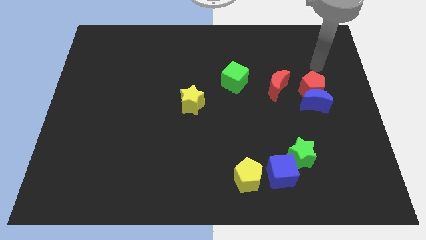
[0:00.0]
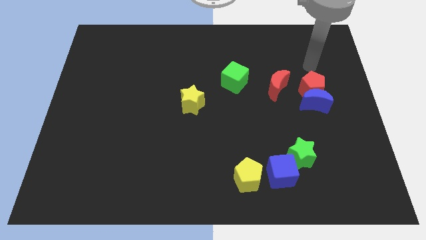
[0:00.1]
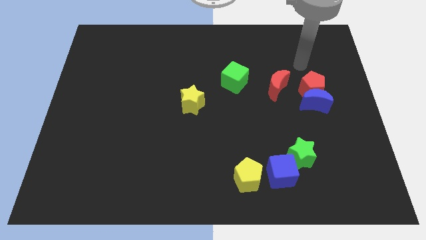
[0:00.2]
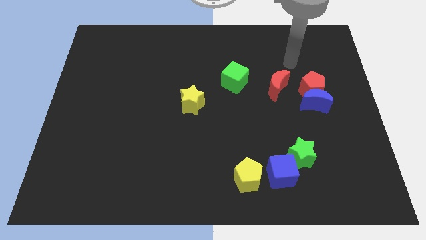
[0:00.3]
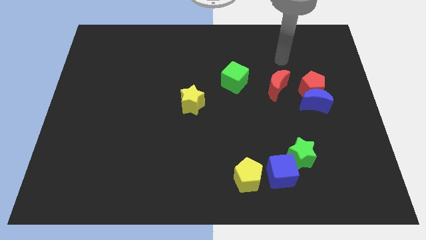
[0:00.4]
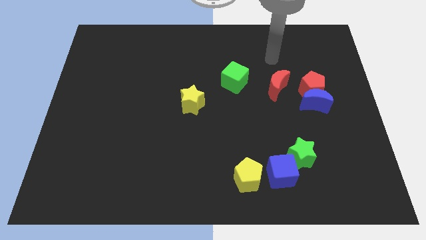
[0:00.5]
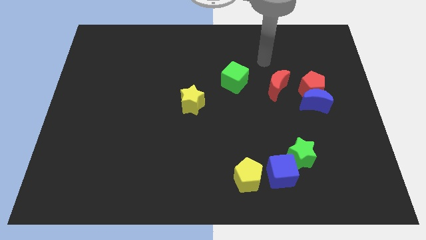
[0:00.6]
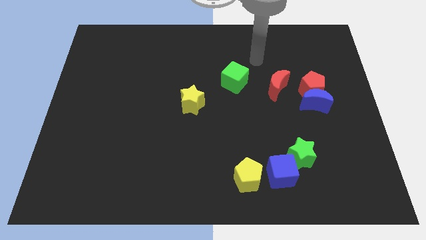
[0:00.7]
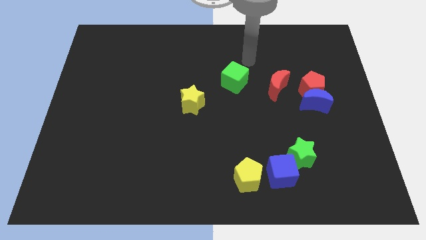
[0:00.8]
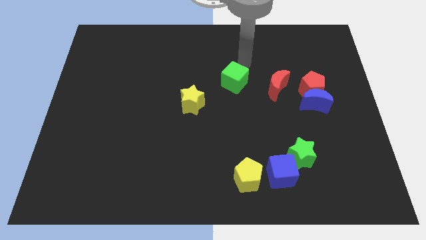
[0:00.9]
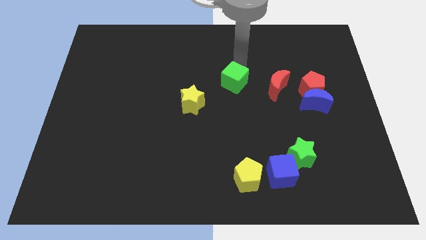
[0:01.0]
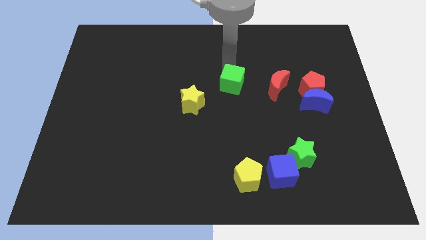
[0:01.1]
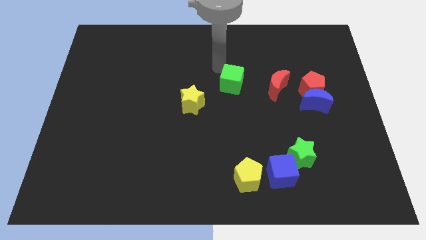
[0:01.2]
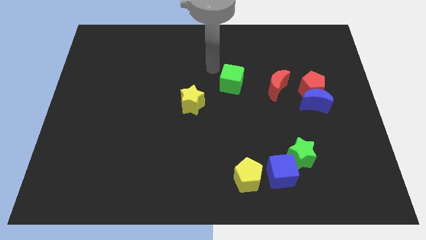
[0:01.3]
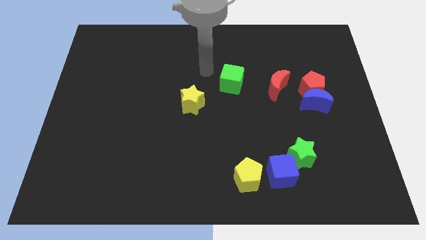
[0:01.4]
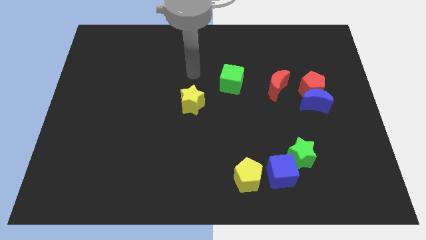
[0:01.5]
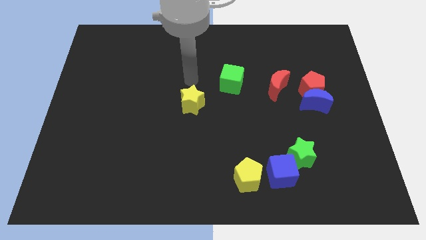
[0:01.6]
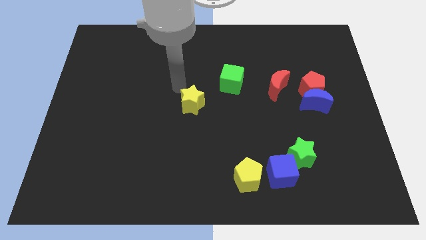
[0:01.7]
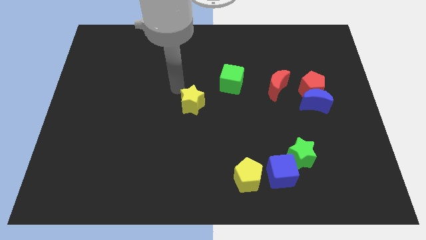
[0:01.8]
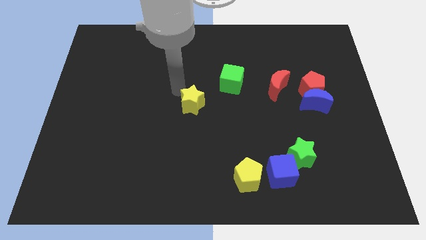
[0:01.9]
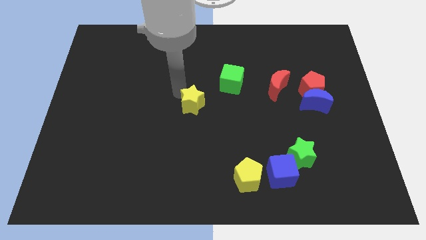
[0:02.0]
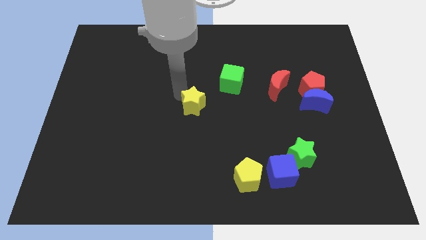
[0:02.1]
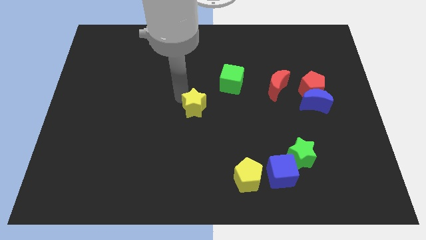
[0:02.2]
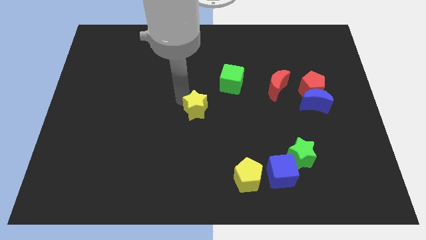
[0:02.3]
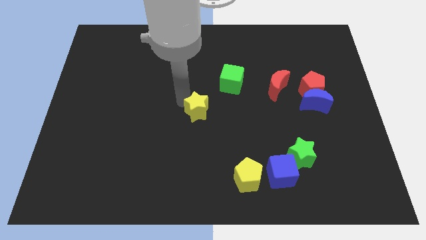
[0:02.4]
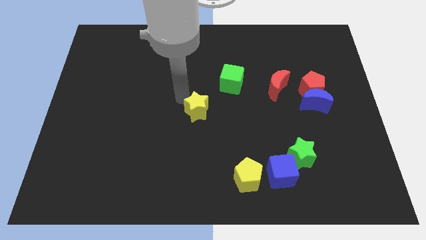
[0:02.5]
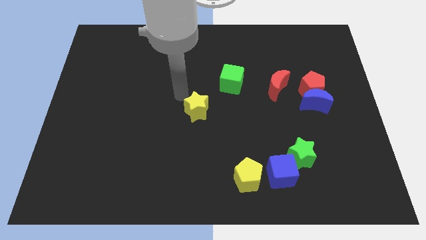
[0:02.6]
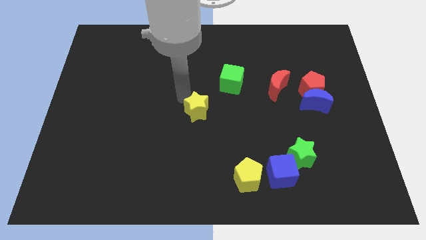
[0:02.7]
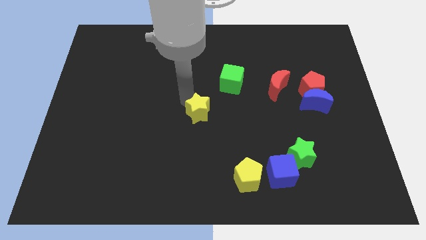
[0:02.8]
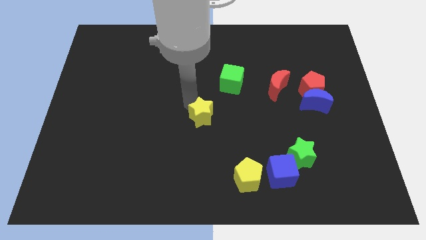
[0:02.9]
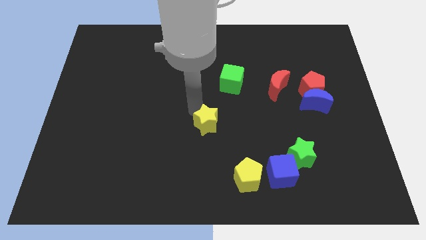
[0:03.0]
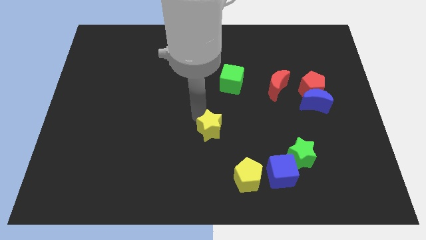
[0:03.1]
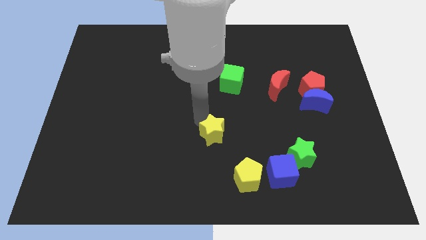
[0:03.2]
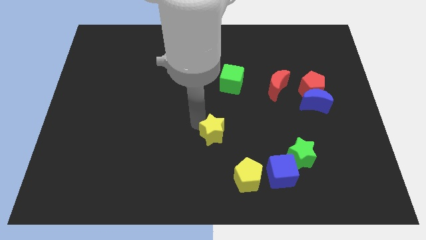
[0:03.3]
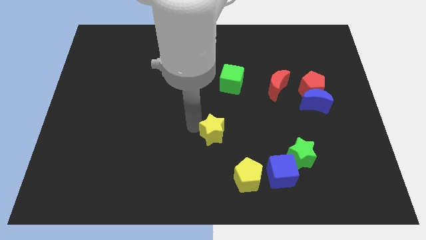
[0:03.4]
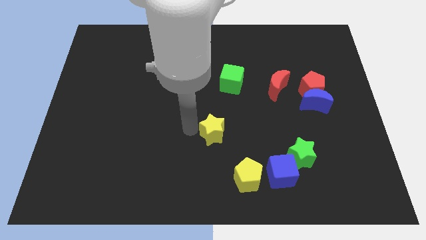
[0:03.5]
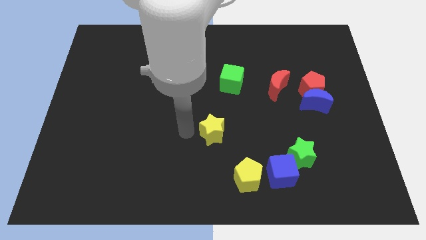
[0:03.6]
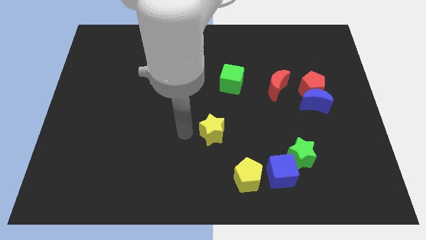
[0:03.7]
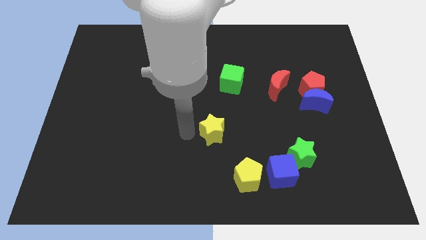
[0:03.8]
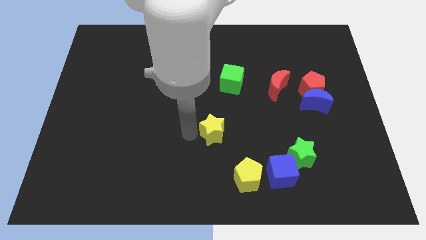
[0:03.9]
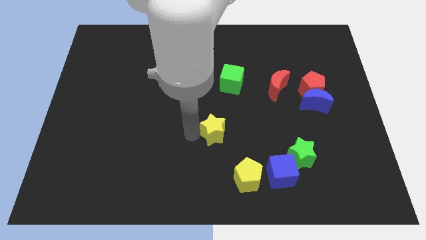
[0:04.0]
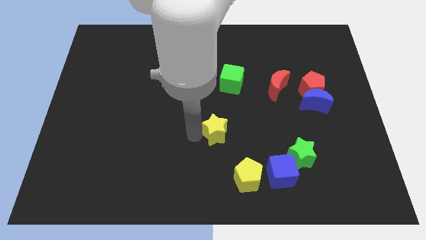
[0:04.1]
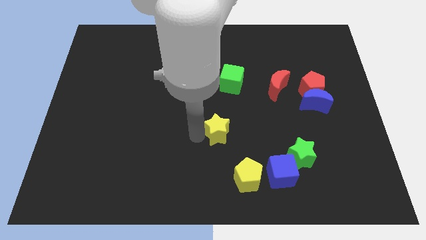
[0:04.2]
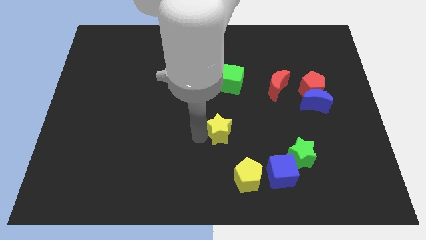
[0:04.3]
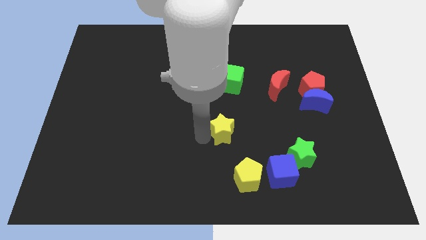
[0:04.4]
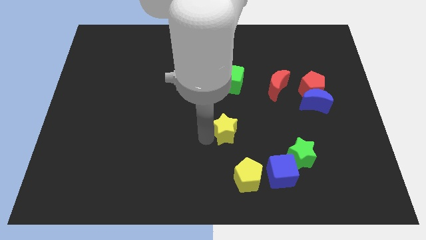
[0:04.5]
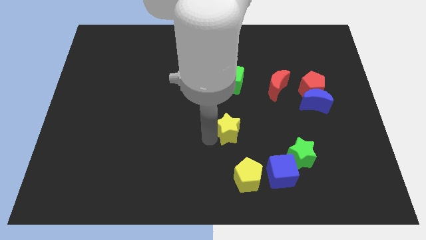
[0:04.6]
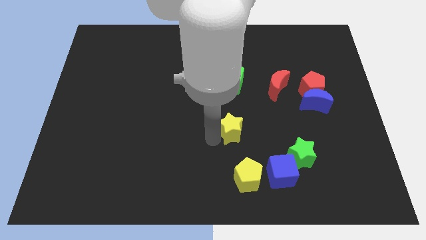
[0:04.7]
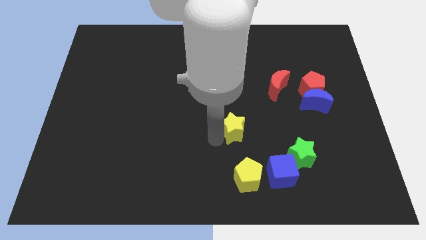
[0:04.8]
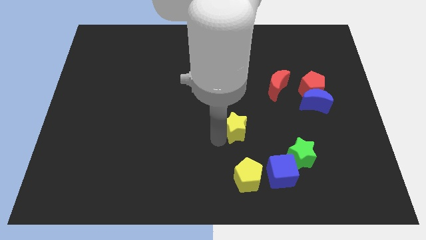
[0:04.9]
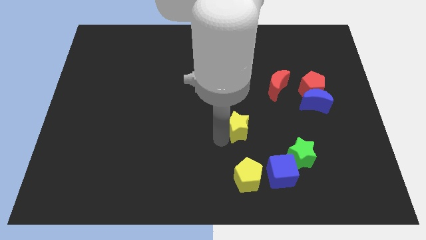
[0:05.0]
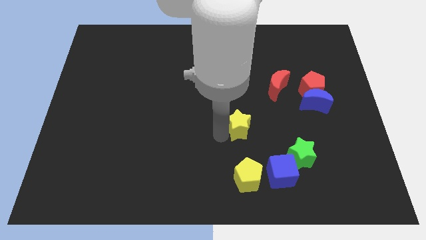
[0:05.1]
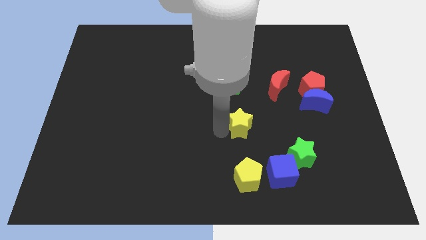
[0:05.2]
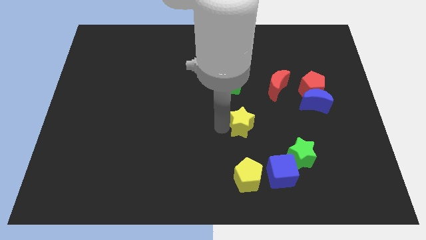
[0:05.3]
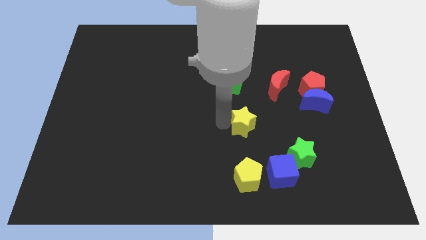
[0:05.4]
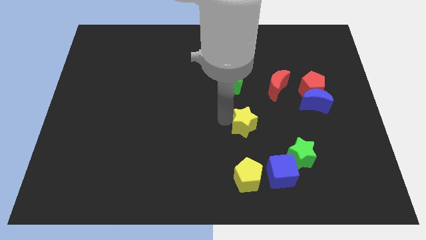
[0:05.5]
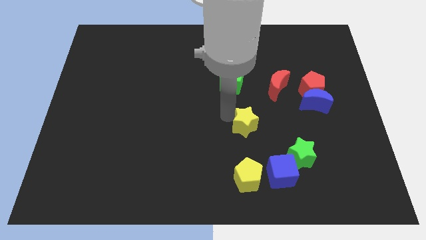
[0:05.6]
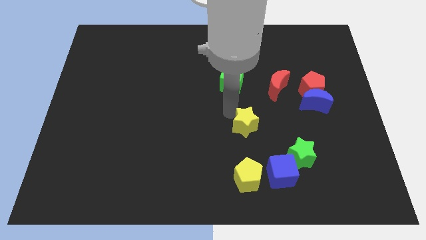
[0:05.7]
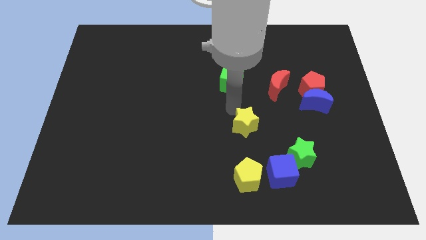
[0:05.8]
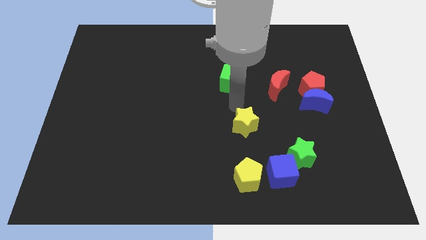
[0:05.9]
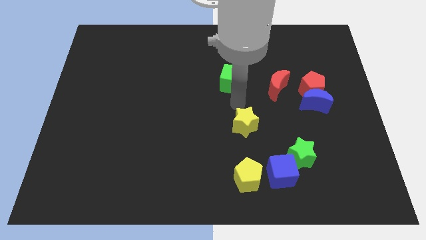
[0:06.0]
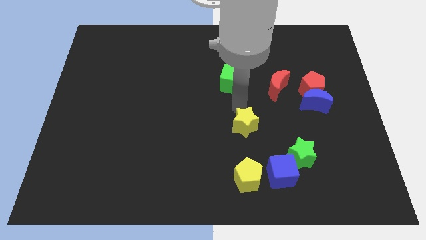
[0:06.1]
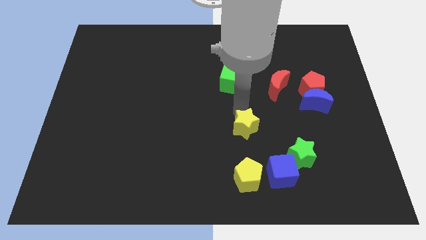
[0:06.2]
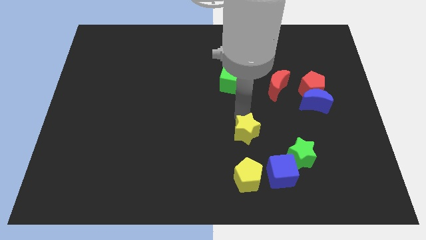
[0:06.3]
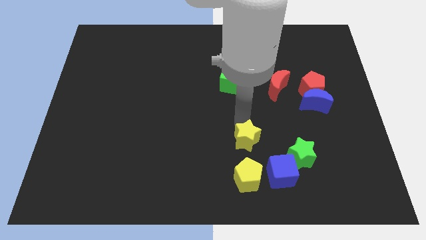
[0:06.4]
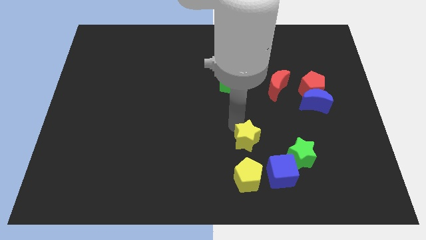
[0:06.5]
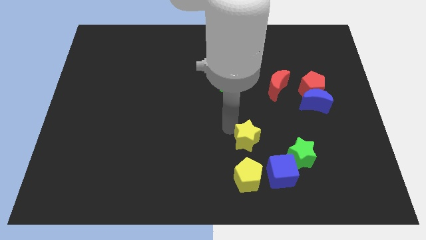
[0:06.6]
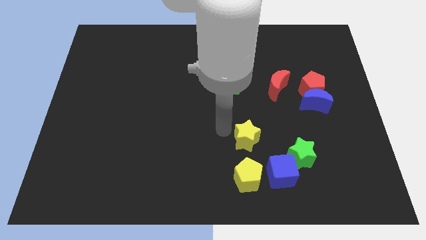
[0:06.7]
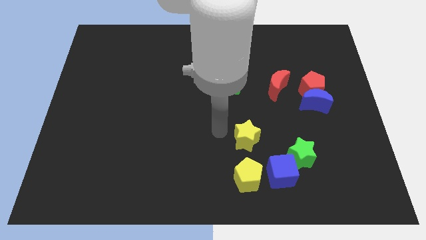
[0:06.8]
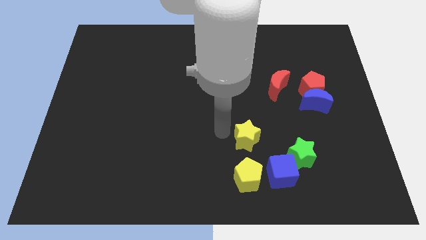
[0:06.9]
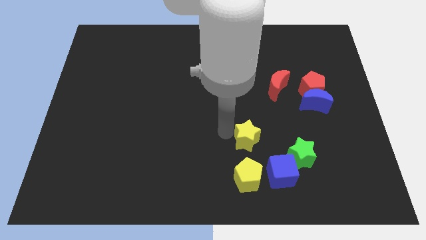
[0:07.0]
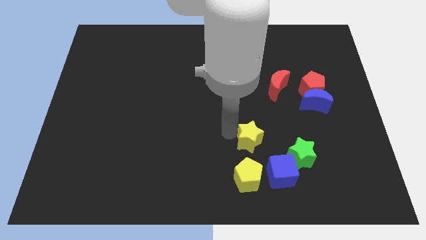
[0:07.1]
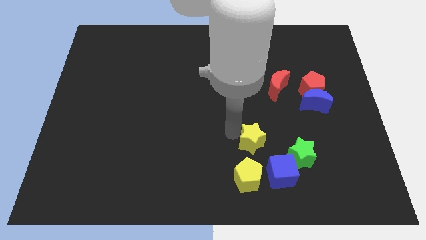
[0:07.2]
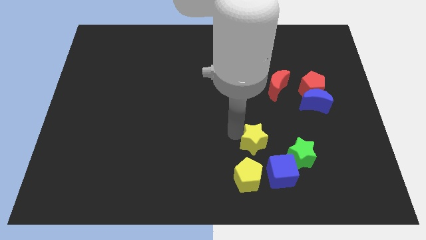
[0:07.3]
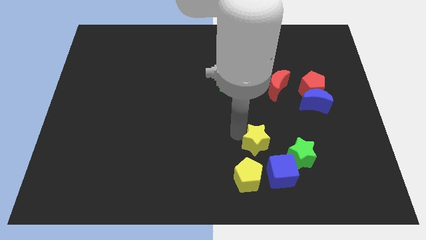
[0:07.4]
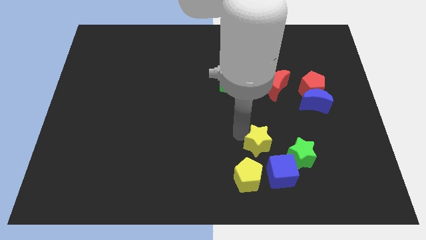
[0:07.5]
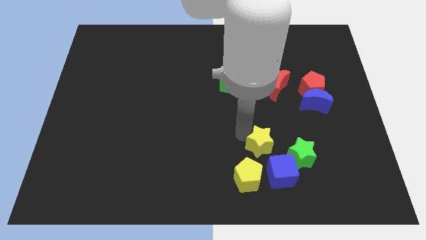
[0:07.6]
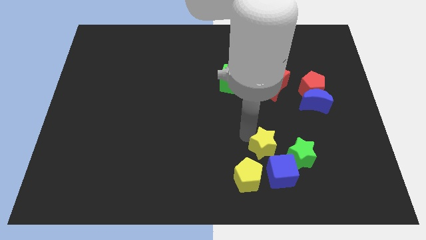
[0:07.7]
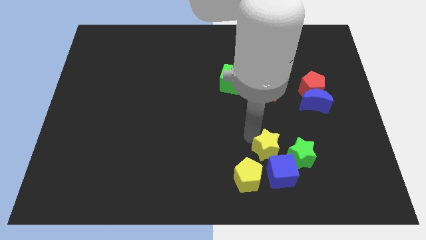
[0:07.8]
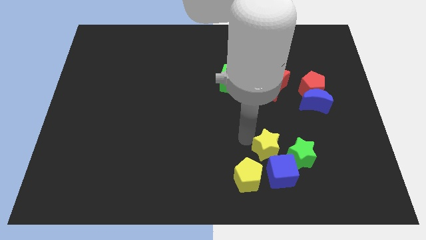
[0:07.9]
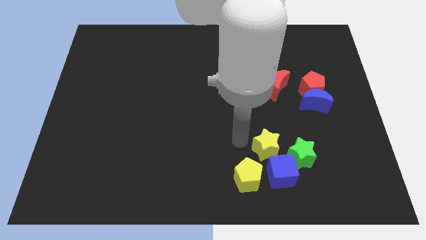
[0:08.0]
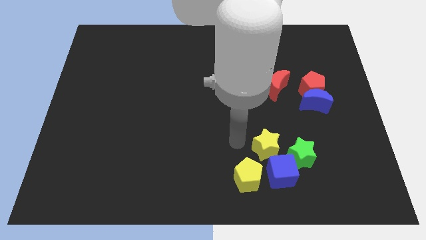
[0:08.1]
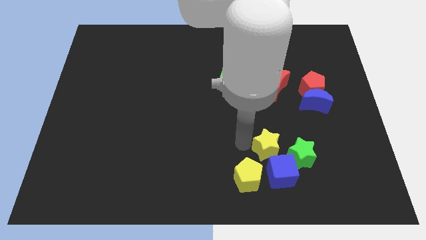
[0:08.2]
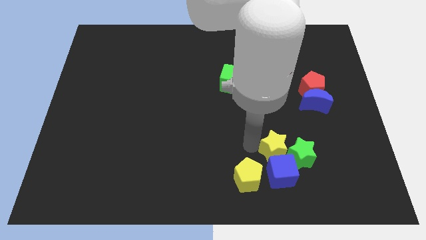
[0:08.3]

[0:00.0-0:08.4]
slide the yellow star close to the green star
